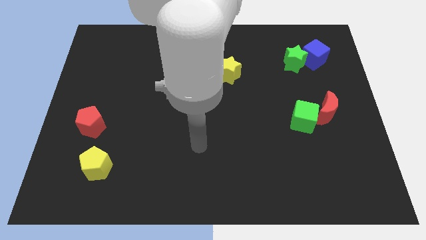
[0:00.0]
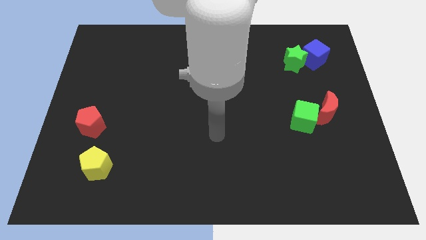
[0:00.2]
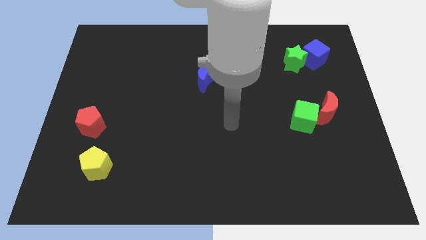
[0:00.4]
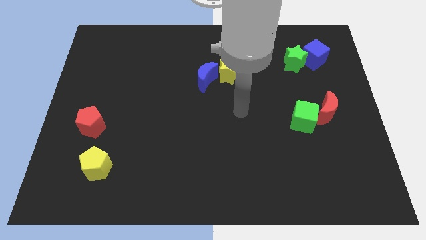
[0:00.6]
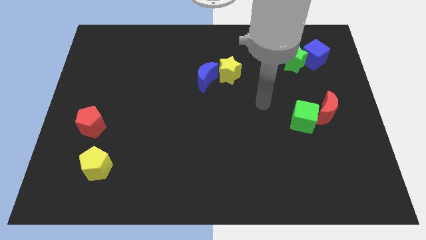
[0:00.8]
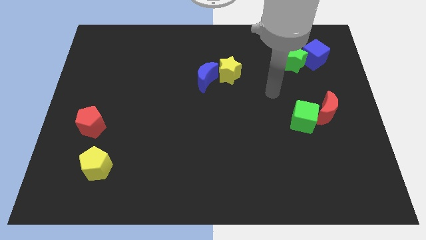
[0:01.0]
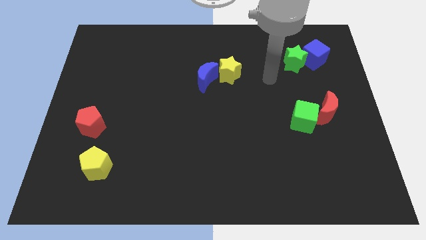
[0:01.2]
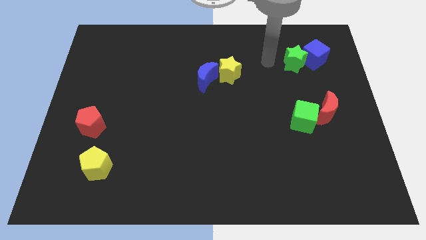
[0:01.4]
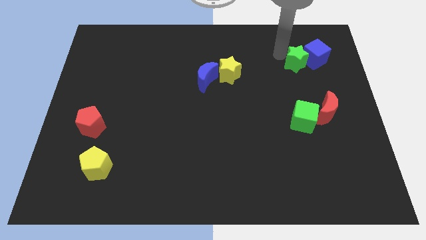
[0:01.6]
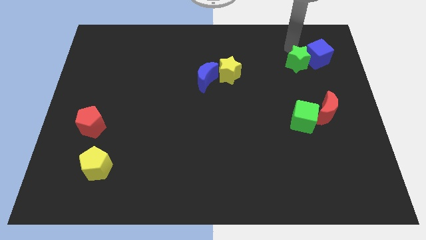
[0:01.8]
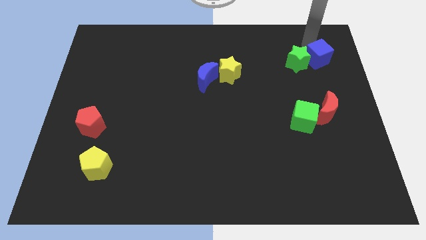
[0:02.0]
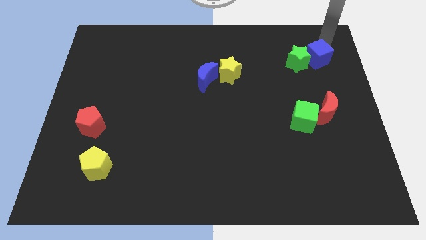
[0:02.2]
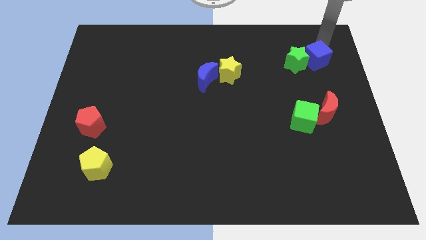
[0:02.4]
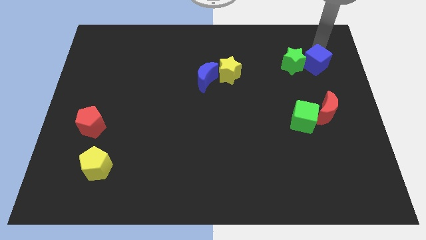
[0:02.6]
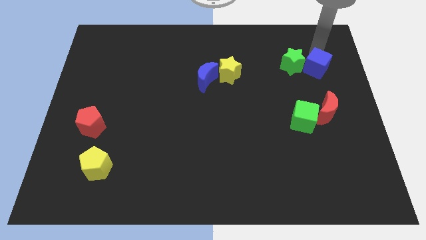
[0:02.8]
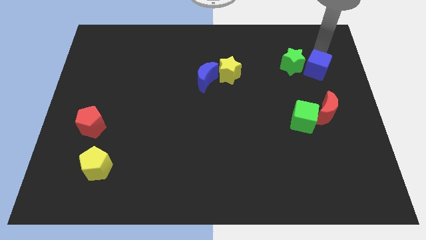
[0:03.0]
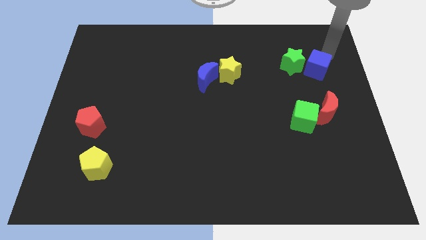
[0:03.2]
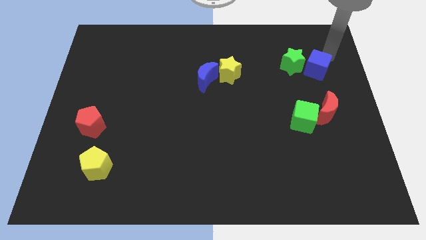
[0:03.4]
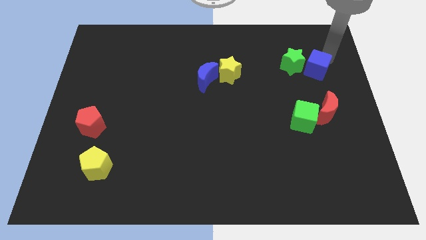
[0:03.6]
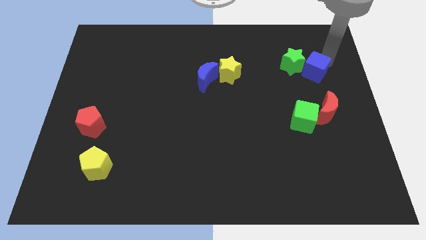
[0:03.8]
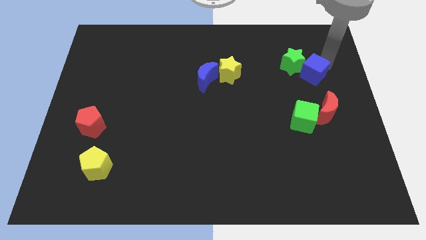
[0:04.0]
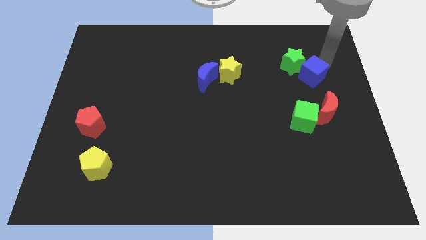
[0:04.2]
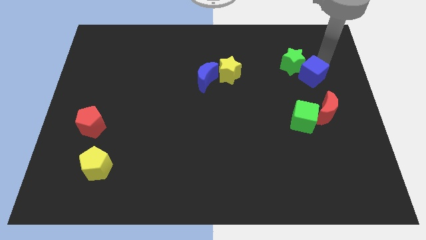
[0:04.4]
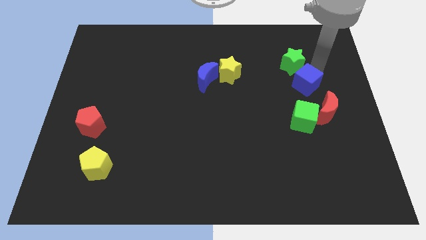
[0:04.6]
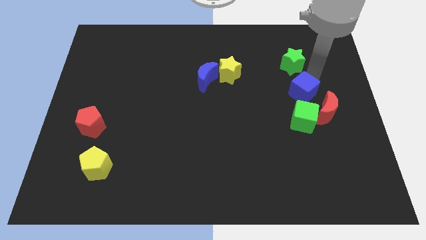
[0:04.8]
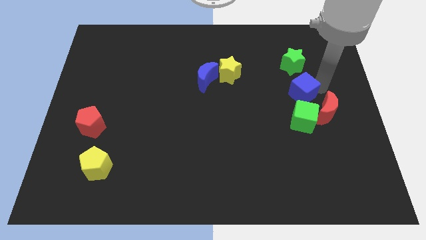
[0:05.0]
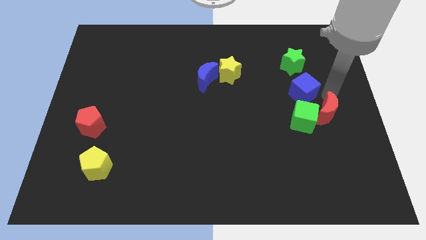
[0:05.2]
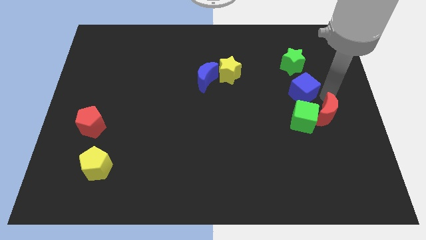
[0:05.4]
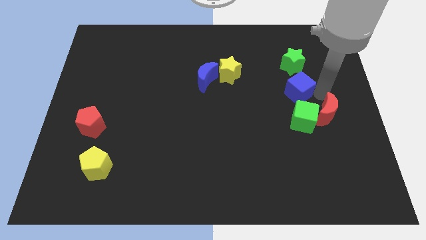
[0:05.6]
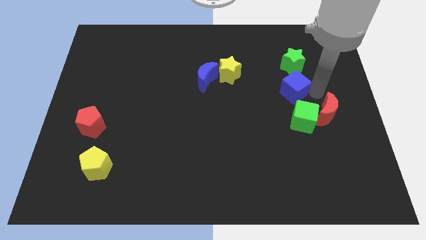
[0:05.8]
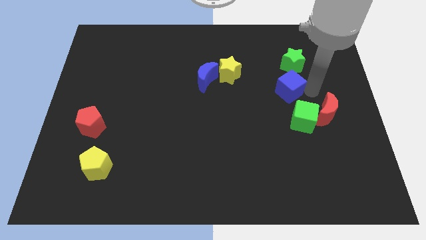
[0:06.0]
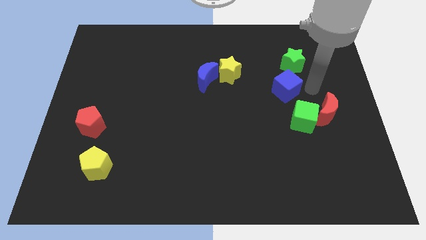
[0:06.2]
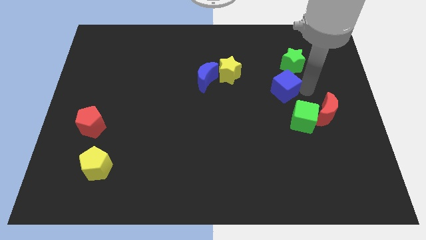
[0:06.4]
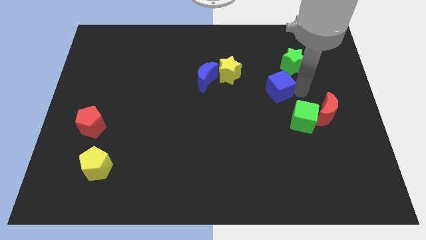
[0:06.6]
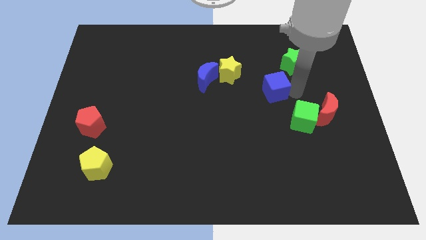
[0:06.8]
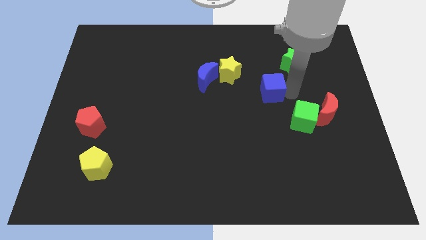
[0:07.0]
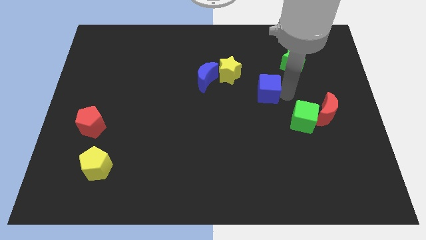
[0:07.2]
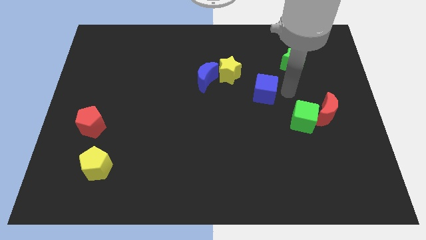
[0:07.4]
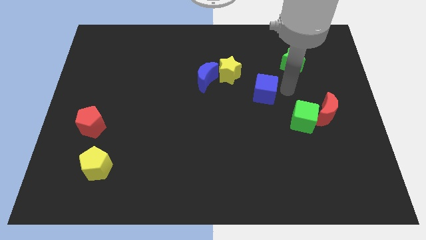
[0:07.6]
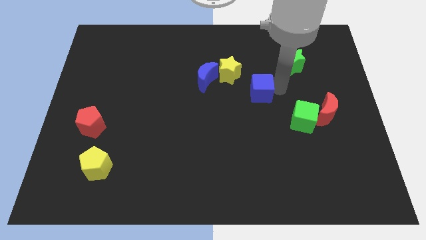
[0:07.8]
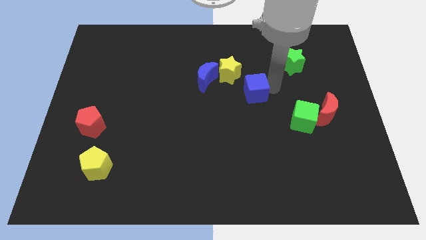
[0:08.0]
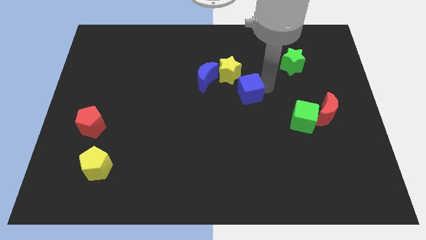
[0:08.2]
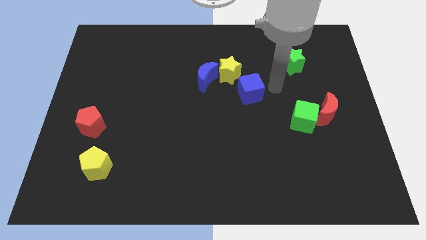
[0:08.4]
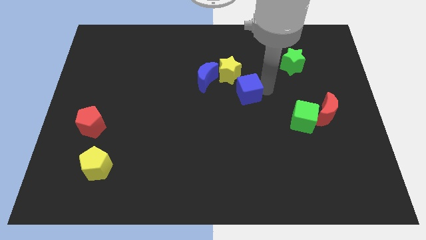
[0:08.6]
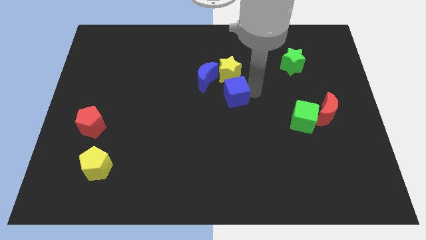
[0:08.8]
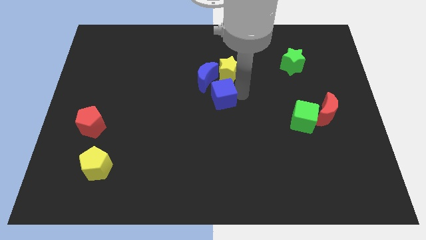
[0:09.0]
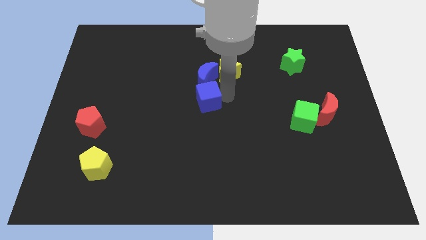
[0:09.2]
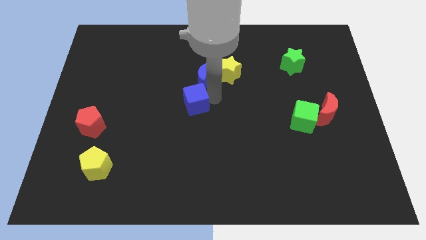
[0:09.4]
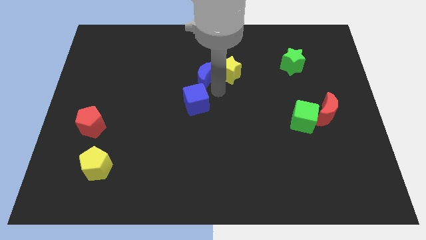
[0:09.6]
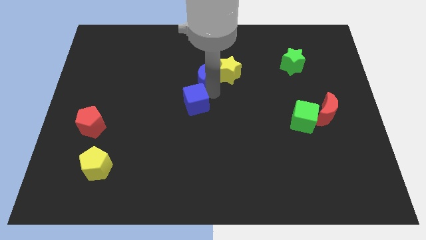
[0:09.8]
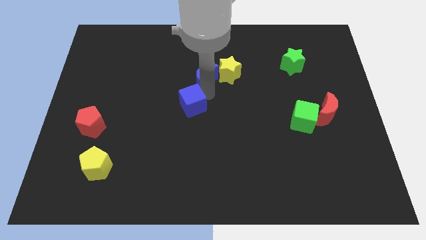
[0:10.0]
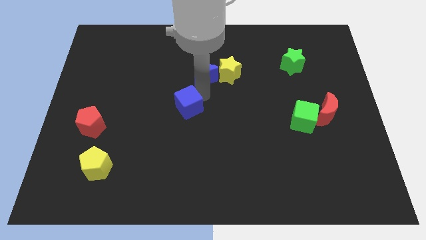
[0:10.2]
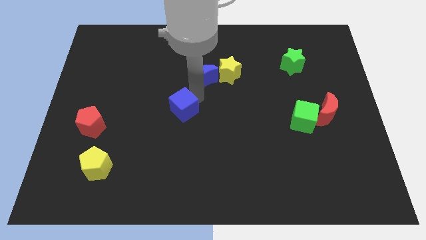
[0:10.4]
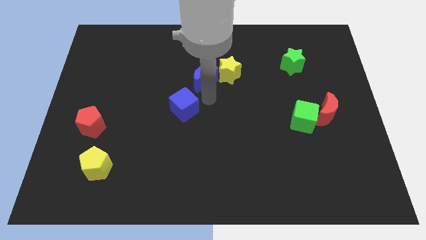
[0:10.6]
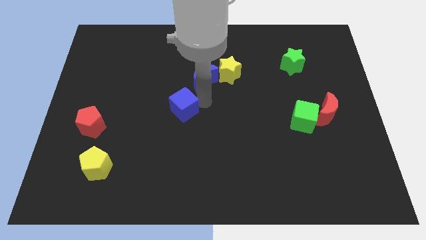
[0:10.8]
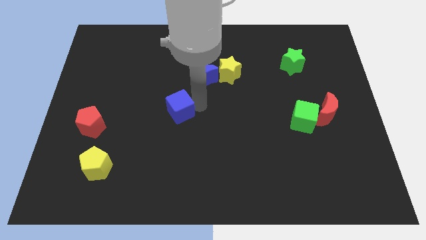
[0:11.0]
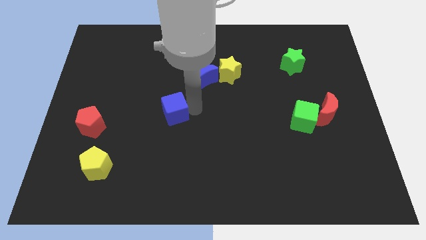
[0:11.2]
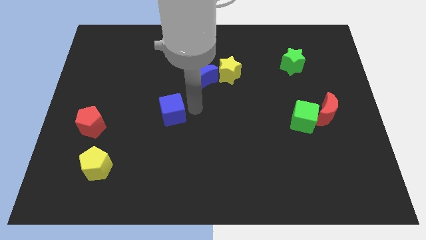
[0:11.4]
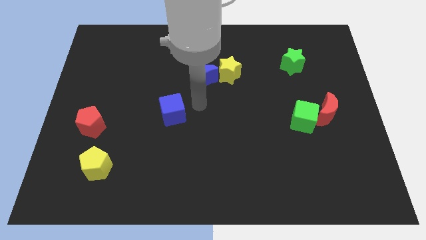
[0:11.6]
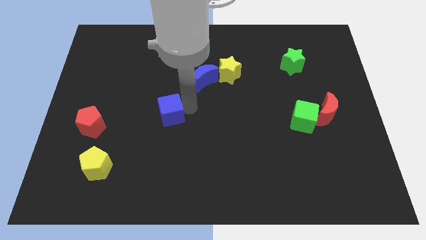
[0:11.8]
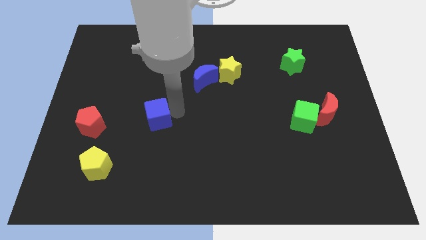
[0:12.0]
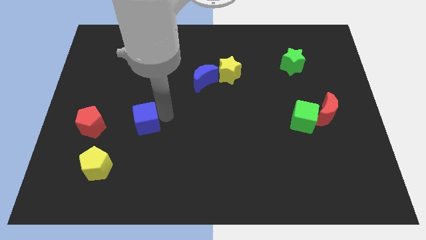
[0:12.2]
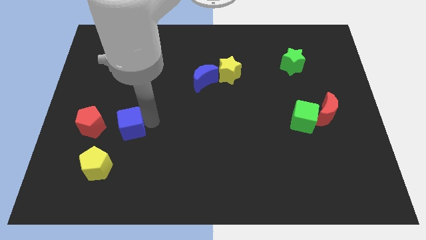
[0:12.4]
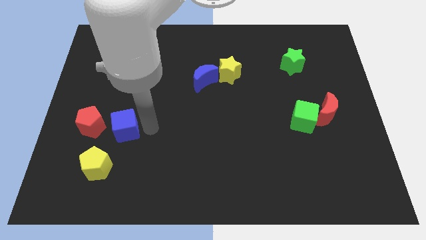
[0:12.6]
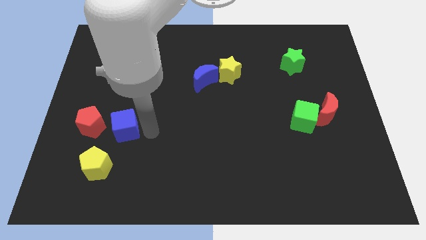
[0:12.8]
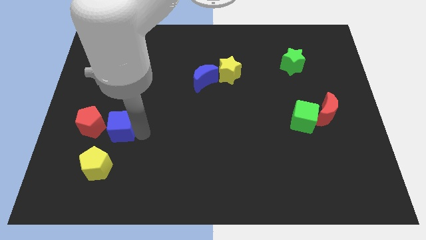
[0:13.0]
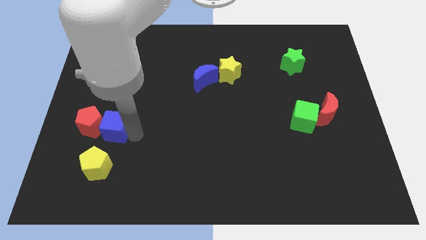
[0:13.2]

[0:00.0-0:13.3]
push the blue cube close to the red pentagon
